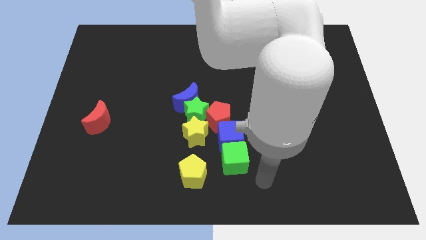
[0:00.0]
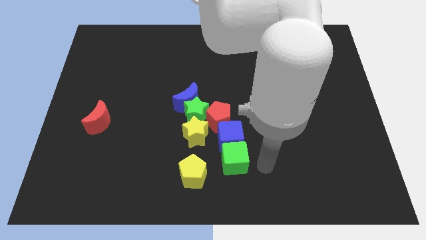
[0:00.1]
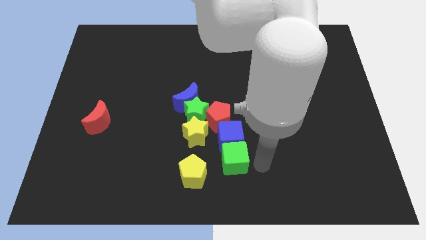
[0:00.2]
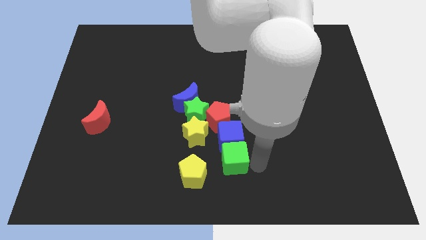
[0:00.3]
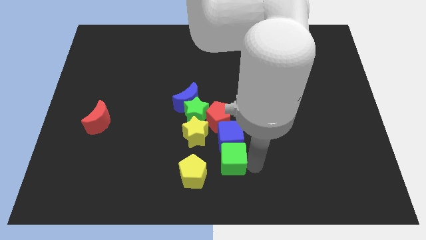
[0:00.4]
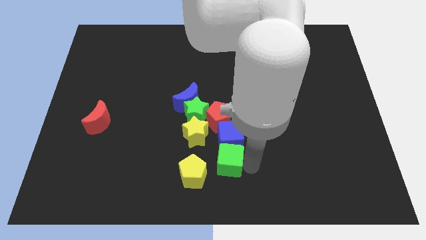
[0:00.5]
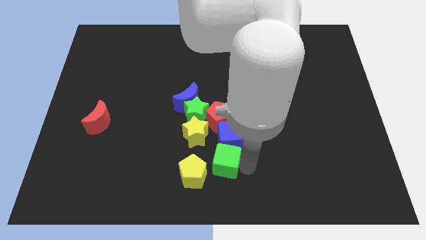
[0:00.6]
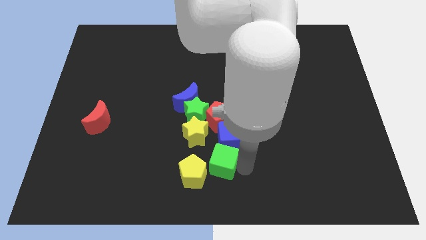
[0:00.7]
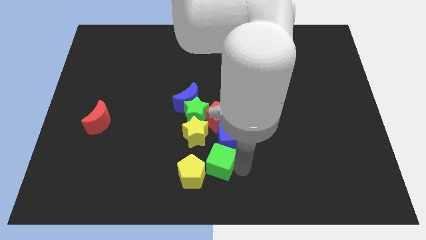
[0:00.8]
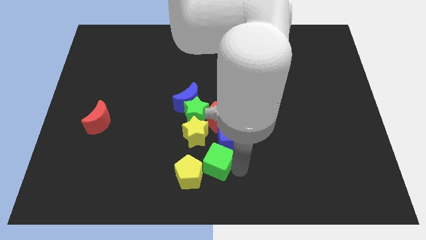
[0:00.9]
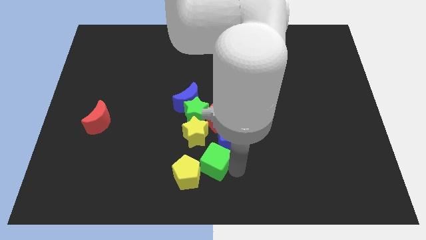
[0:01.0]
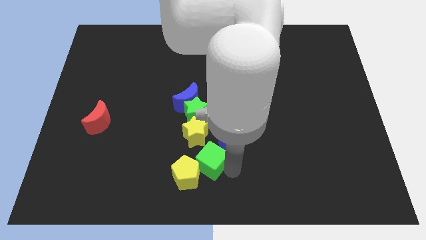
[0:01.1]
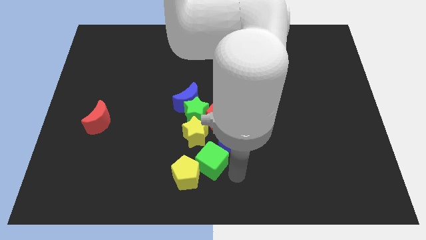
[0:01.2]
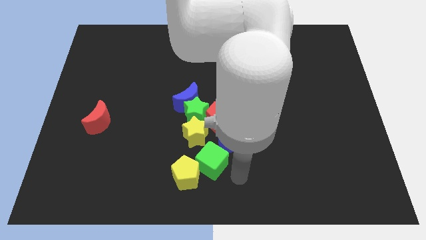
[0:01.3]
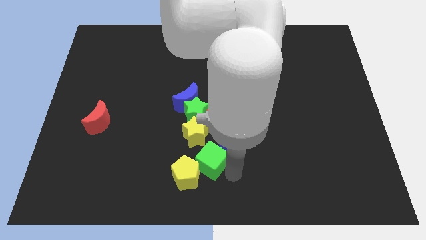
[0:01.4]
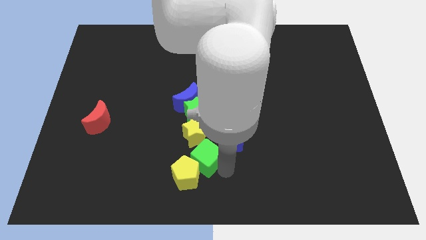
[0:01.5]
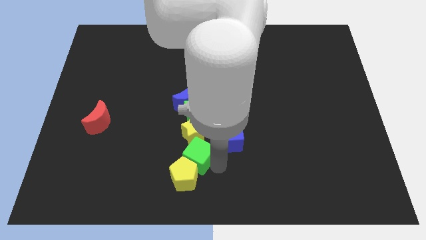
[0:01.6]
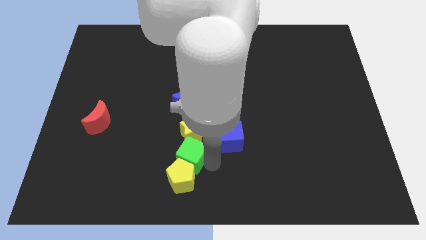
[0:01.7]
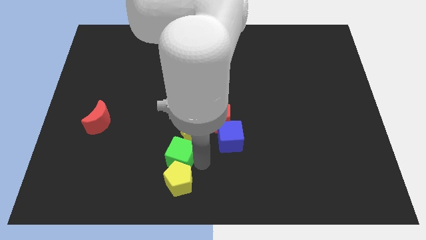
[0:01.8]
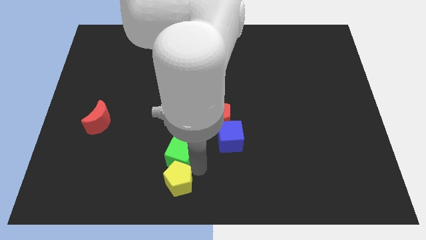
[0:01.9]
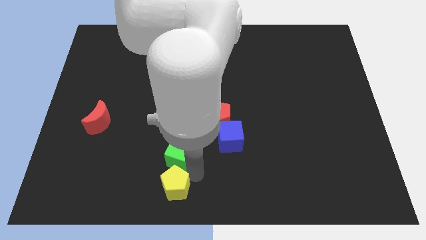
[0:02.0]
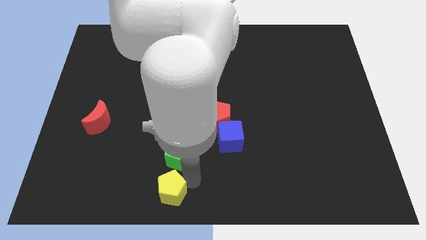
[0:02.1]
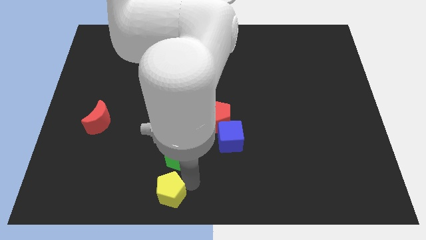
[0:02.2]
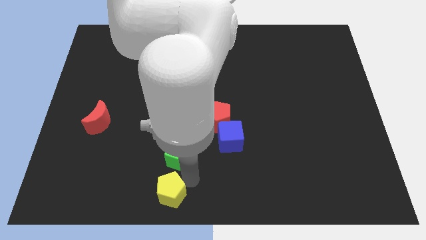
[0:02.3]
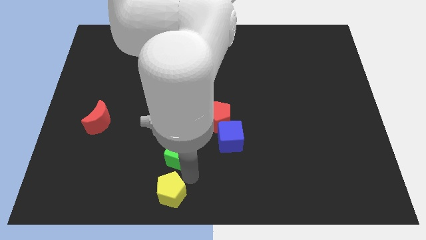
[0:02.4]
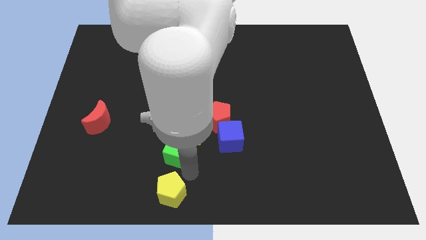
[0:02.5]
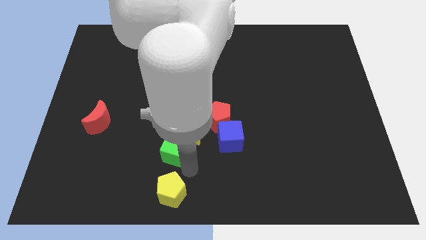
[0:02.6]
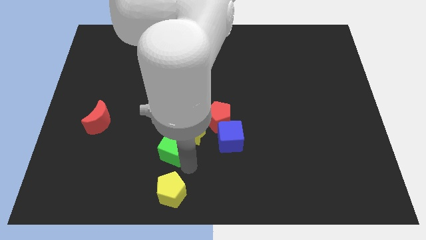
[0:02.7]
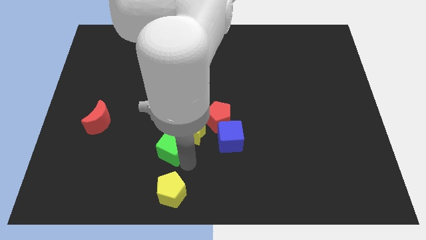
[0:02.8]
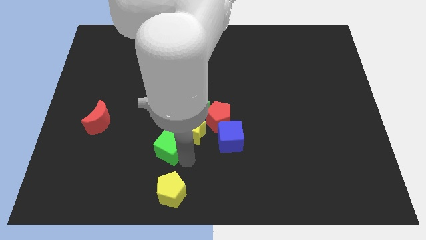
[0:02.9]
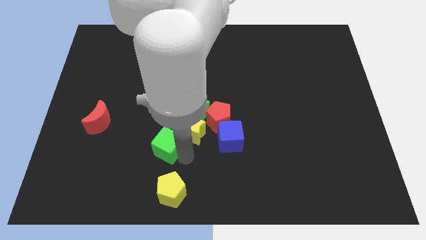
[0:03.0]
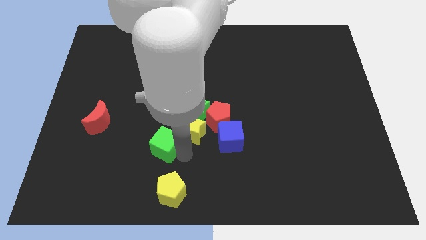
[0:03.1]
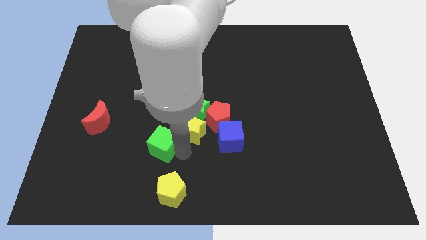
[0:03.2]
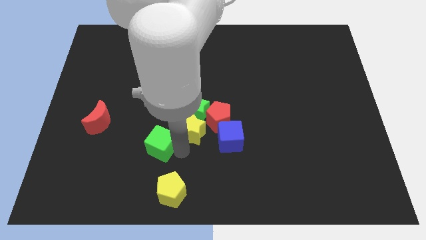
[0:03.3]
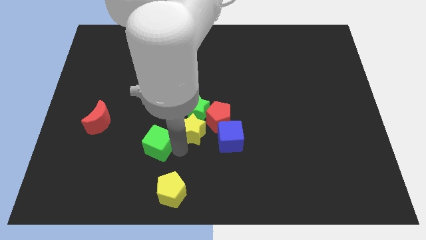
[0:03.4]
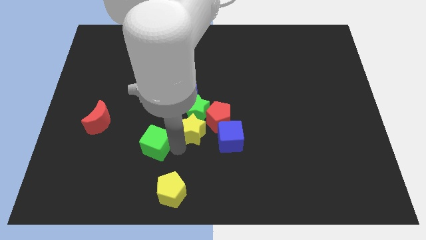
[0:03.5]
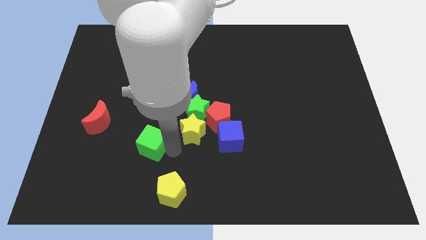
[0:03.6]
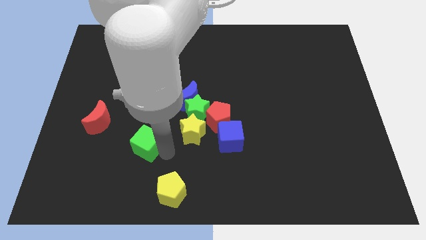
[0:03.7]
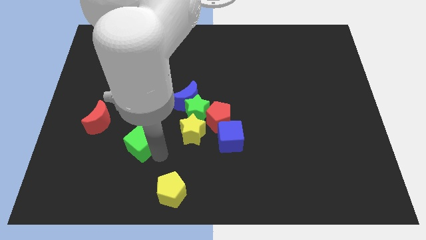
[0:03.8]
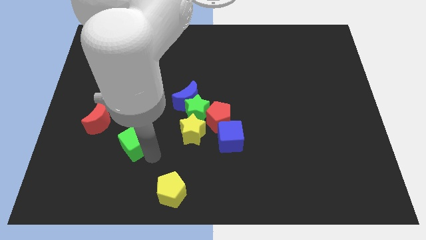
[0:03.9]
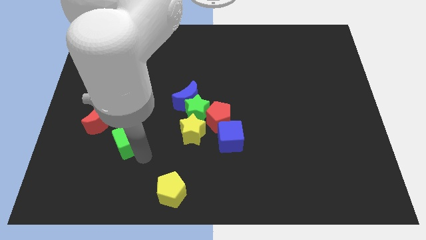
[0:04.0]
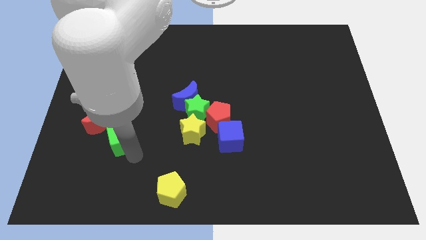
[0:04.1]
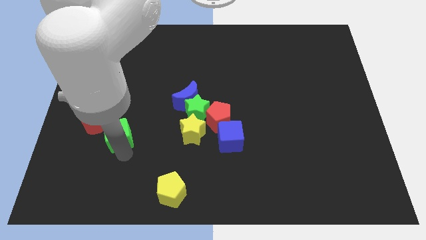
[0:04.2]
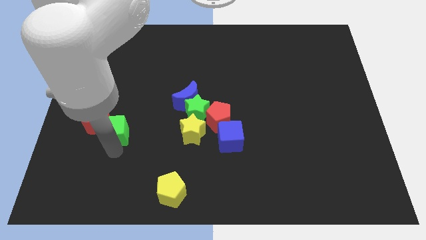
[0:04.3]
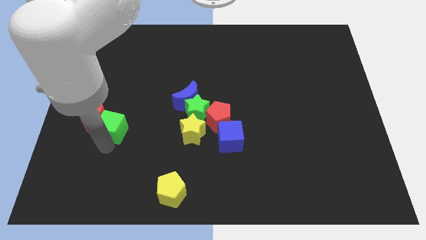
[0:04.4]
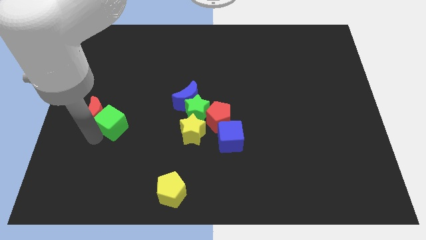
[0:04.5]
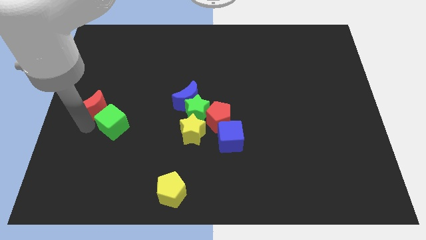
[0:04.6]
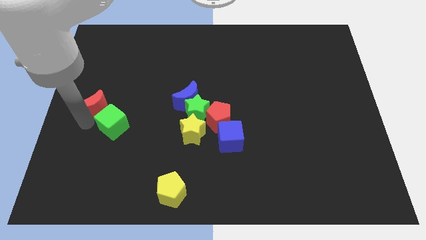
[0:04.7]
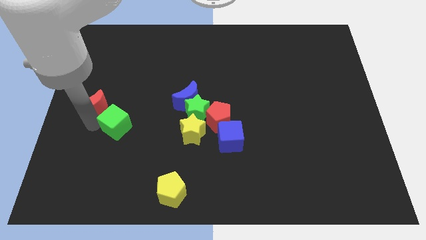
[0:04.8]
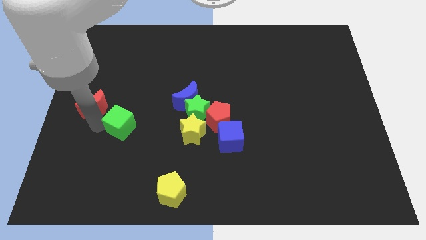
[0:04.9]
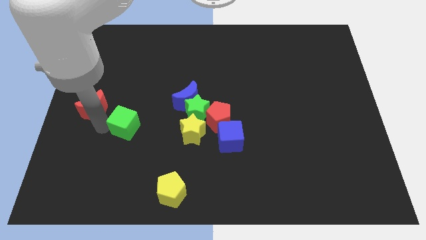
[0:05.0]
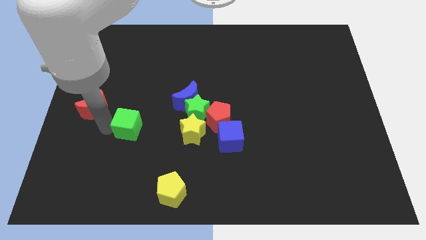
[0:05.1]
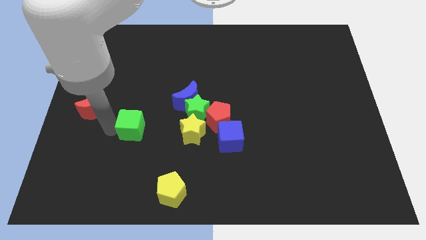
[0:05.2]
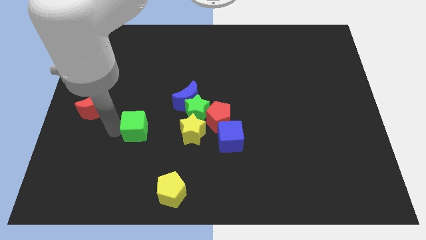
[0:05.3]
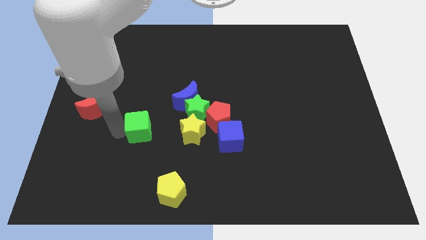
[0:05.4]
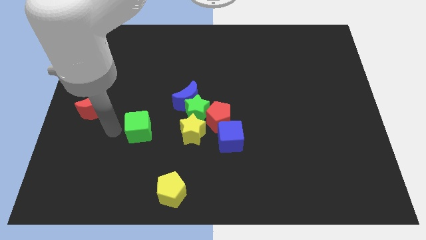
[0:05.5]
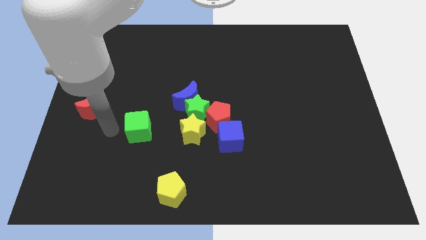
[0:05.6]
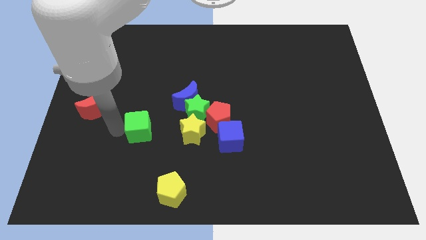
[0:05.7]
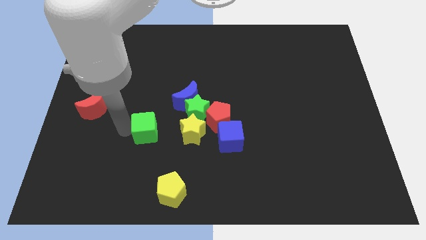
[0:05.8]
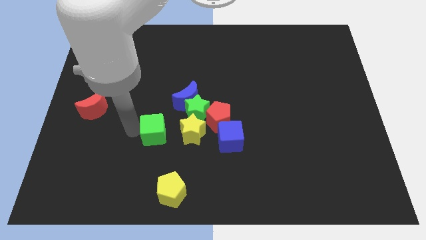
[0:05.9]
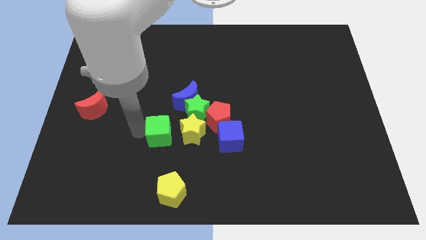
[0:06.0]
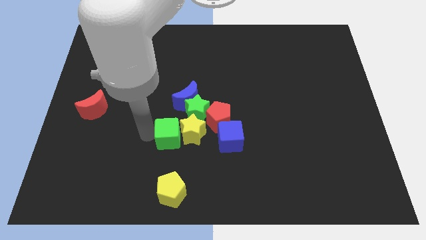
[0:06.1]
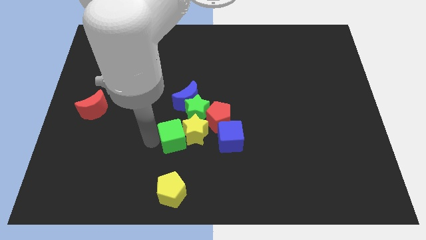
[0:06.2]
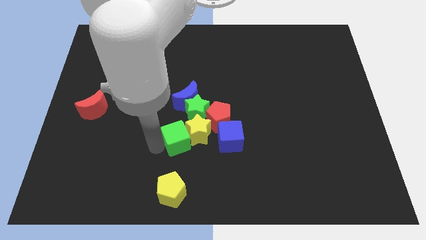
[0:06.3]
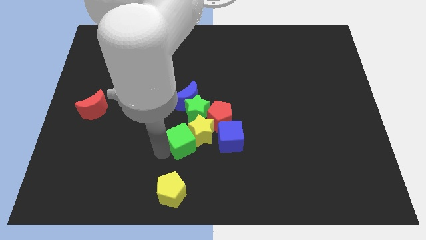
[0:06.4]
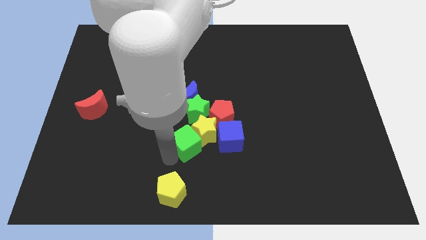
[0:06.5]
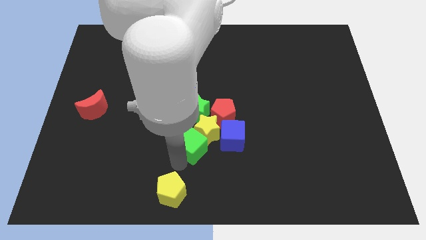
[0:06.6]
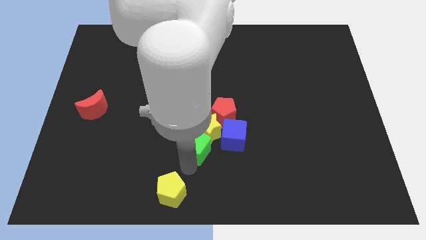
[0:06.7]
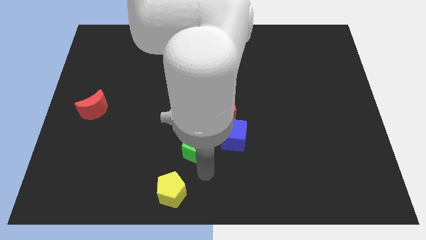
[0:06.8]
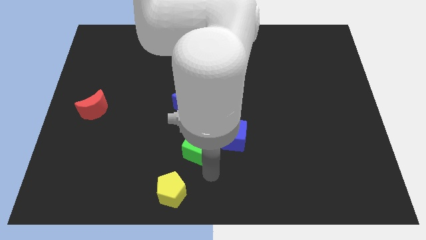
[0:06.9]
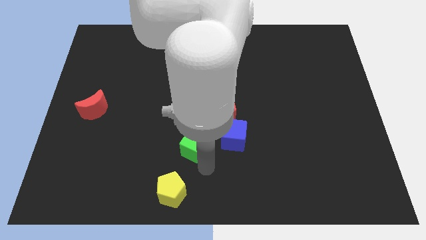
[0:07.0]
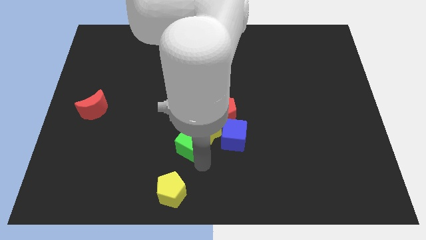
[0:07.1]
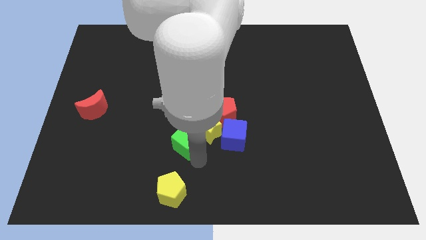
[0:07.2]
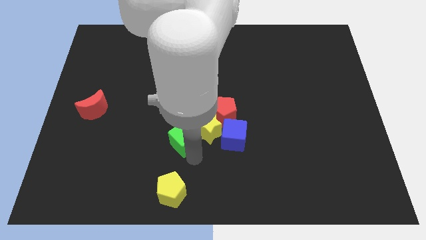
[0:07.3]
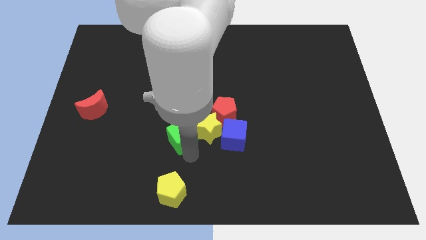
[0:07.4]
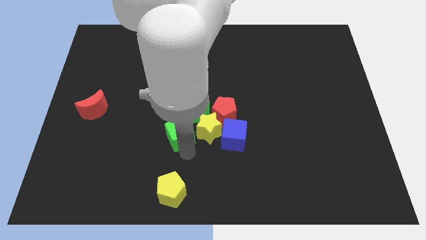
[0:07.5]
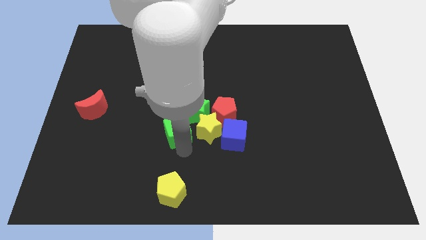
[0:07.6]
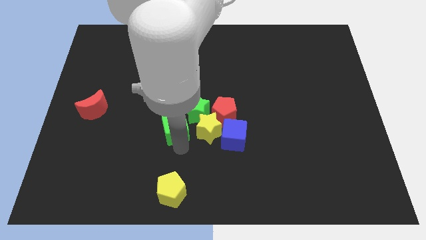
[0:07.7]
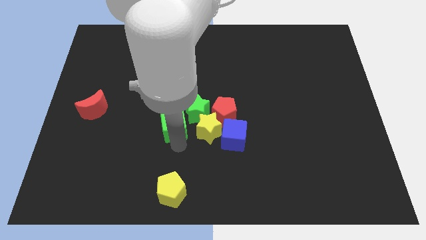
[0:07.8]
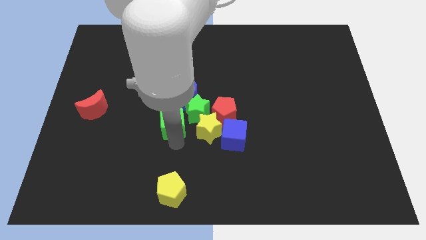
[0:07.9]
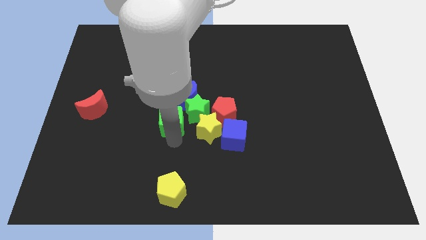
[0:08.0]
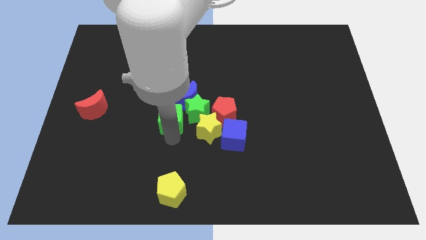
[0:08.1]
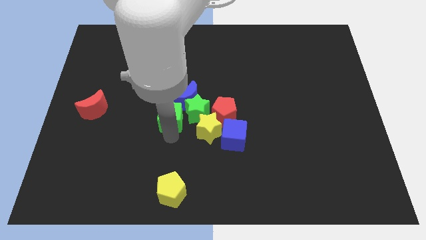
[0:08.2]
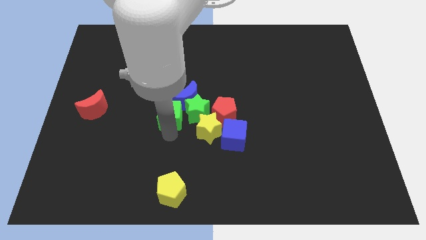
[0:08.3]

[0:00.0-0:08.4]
move the green cube close to the blue moon
